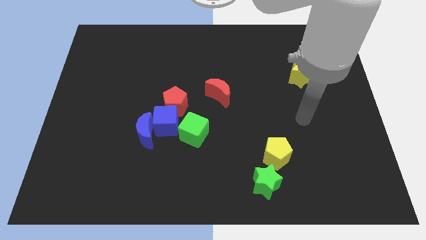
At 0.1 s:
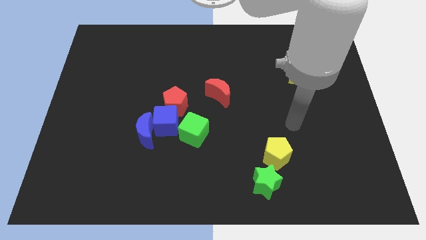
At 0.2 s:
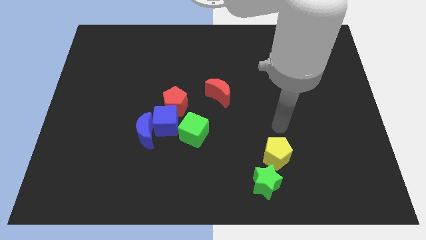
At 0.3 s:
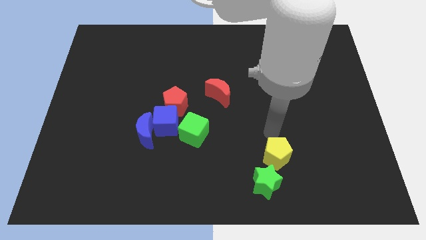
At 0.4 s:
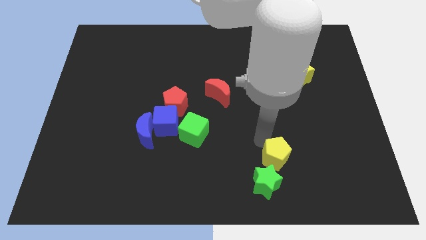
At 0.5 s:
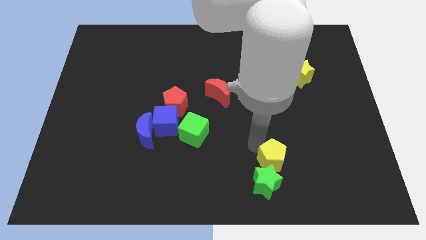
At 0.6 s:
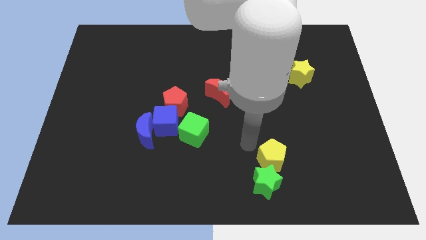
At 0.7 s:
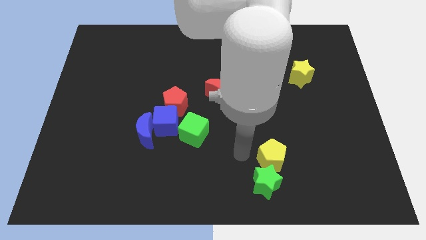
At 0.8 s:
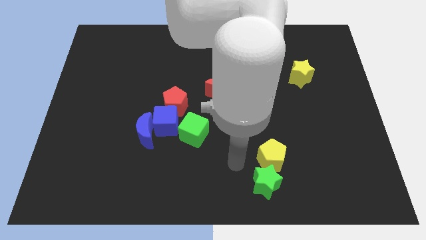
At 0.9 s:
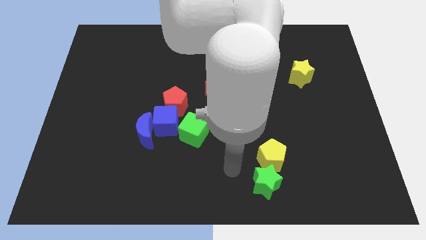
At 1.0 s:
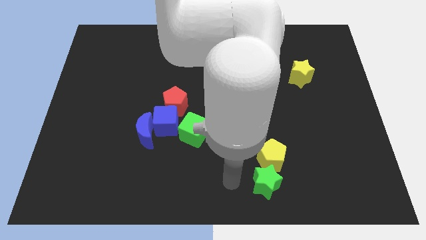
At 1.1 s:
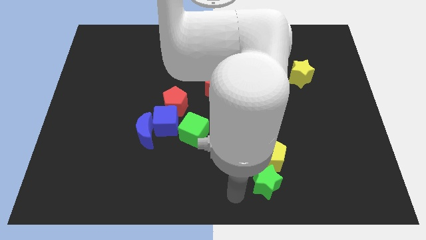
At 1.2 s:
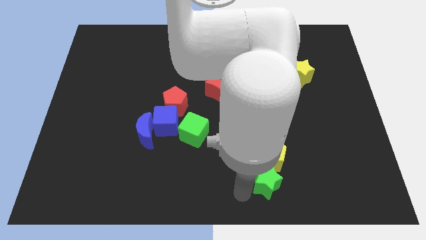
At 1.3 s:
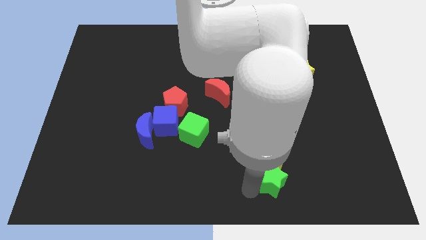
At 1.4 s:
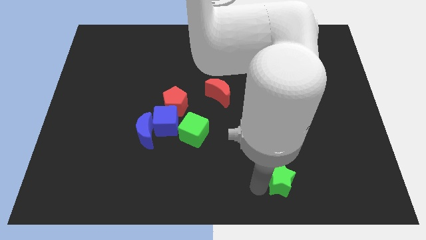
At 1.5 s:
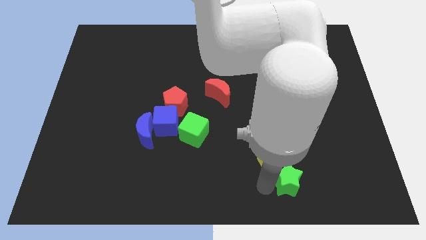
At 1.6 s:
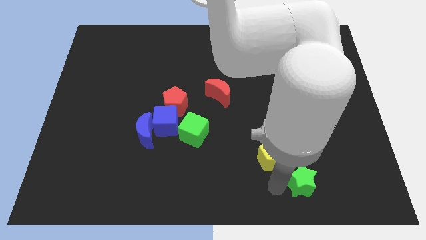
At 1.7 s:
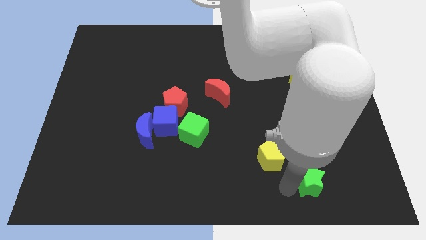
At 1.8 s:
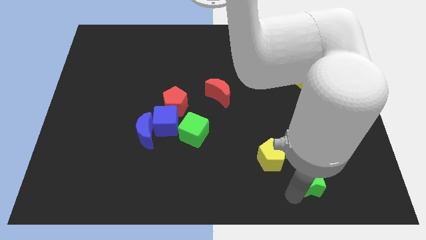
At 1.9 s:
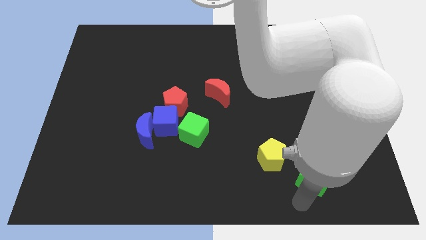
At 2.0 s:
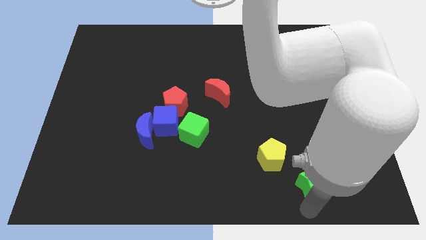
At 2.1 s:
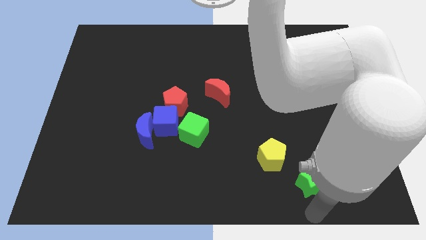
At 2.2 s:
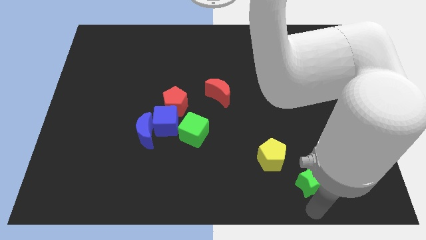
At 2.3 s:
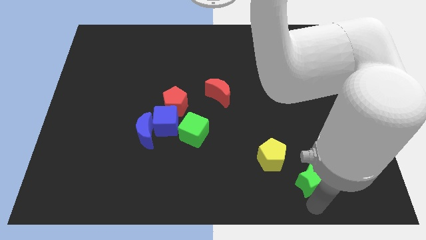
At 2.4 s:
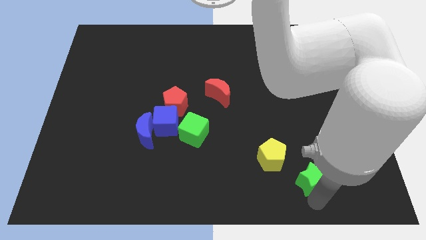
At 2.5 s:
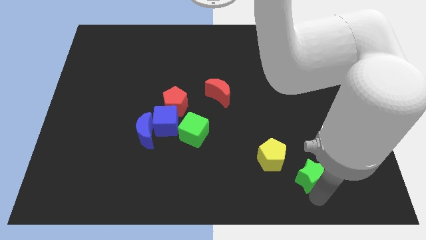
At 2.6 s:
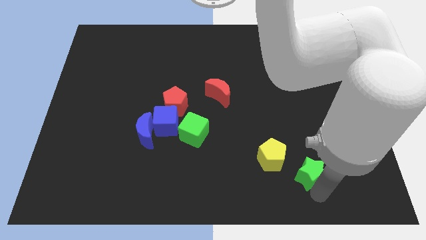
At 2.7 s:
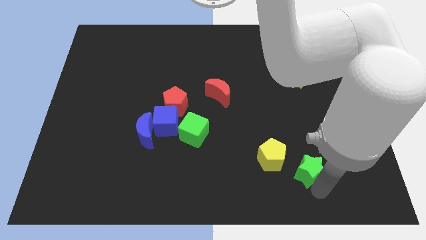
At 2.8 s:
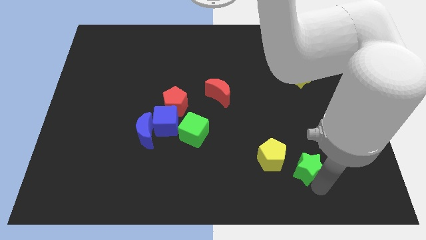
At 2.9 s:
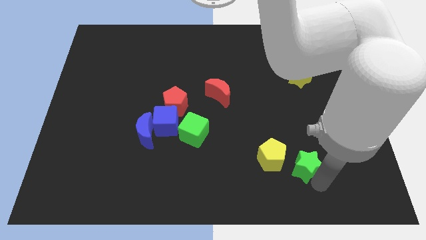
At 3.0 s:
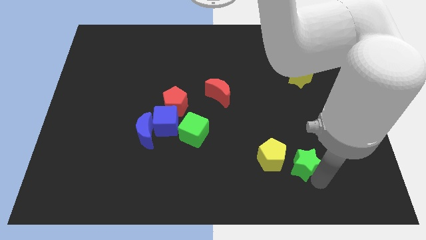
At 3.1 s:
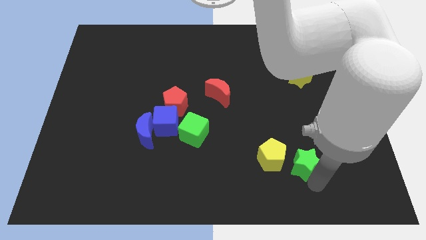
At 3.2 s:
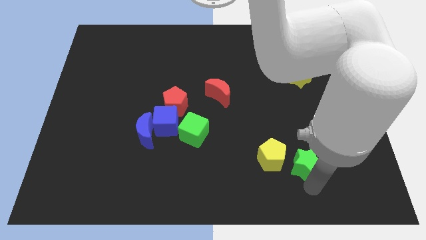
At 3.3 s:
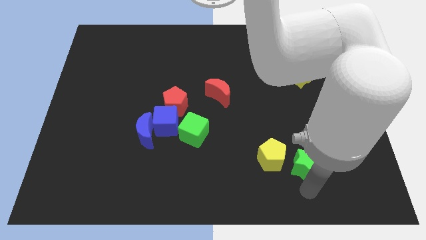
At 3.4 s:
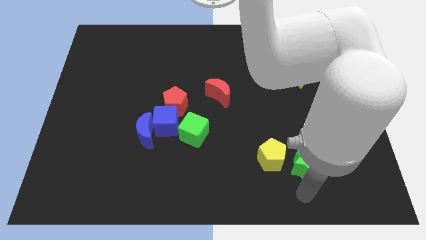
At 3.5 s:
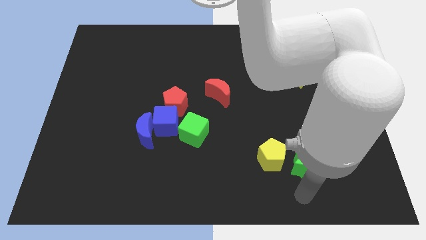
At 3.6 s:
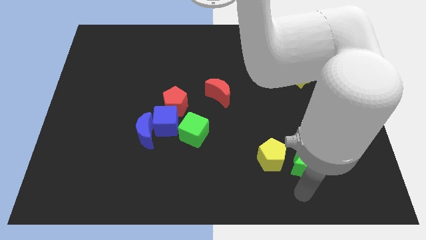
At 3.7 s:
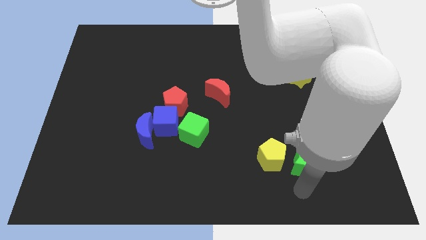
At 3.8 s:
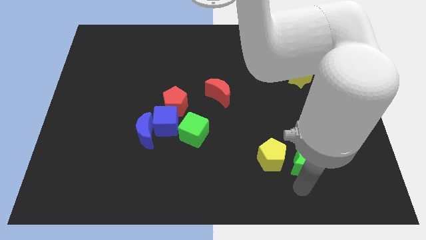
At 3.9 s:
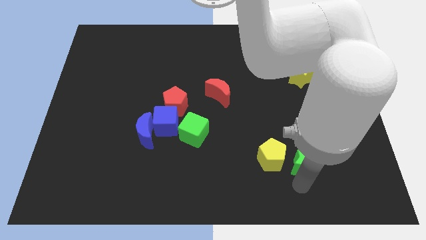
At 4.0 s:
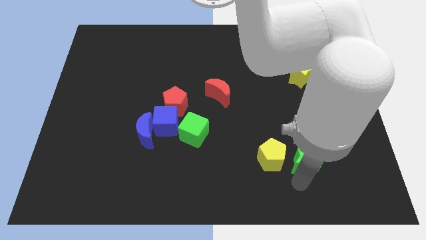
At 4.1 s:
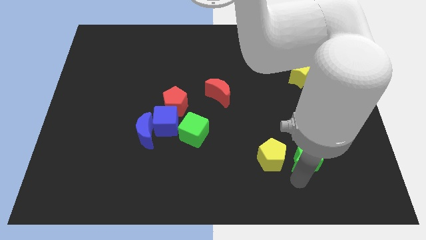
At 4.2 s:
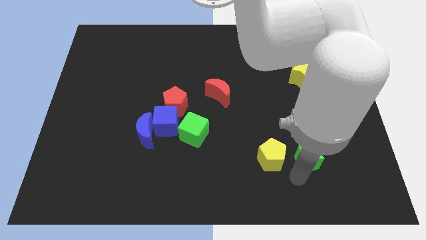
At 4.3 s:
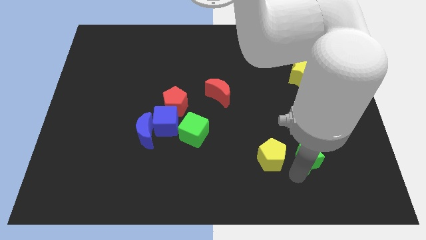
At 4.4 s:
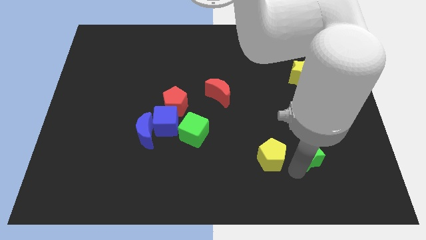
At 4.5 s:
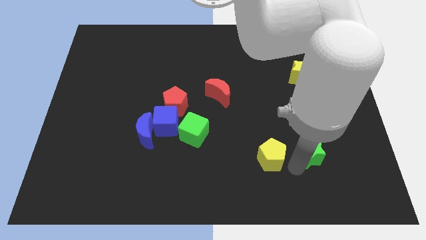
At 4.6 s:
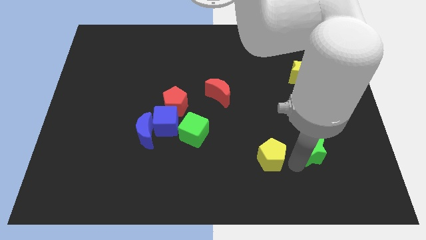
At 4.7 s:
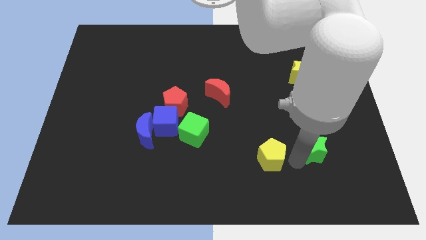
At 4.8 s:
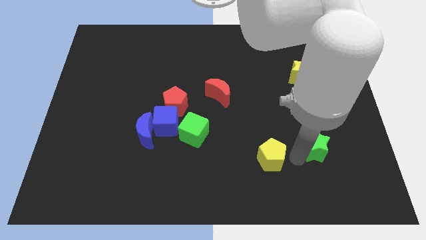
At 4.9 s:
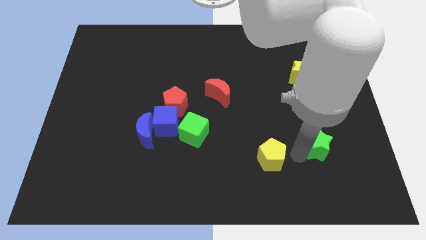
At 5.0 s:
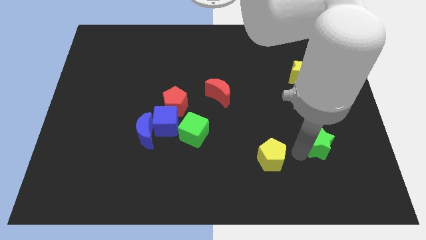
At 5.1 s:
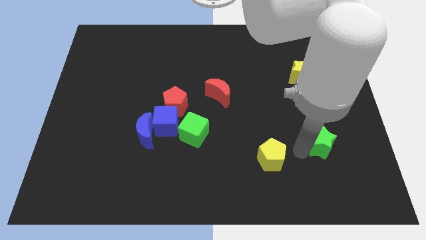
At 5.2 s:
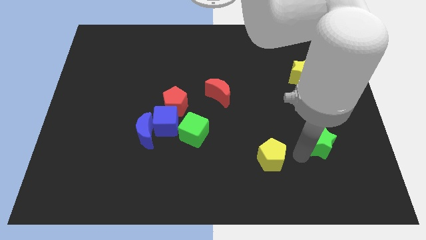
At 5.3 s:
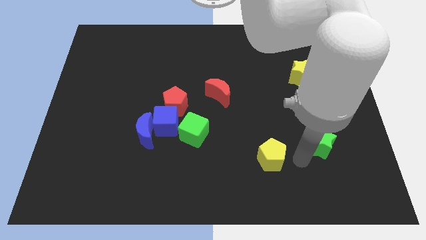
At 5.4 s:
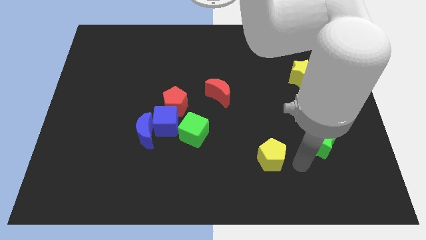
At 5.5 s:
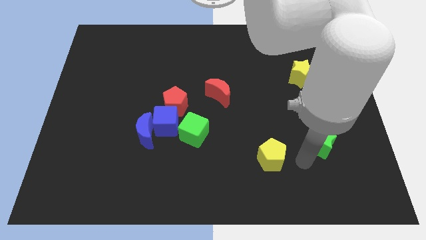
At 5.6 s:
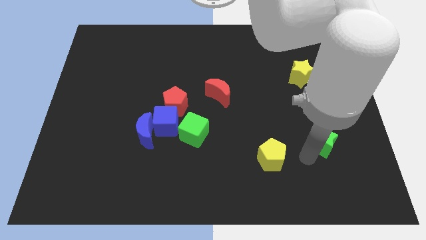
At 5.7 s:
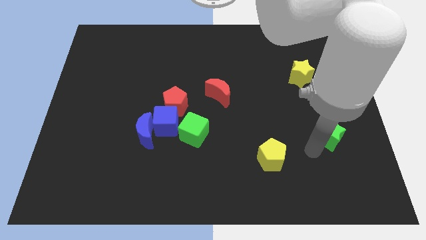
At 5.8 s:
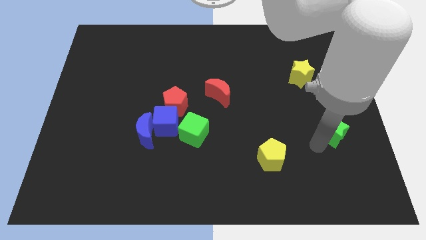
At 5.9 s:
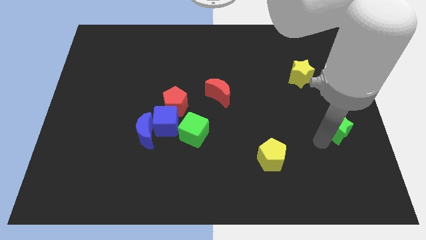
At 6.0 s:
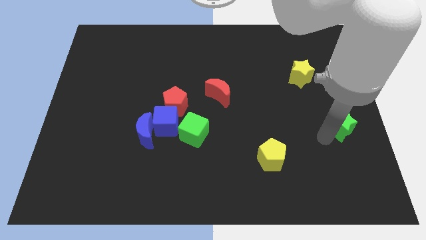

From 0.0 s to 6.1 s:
slide the green star to the right side
